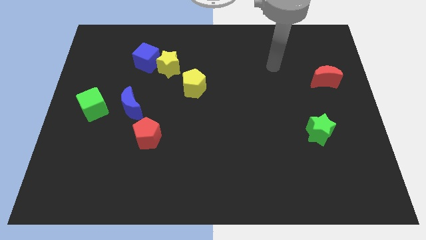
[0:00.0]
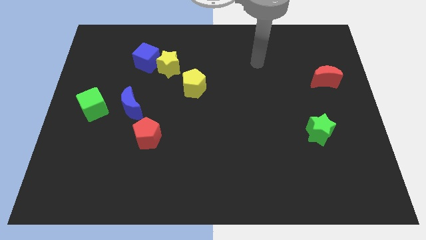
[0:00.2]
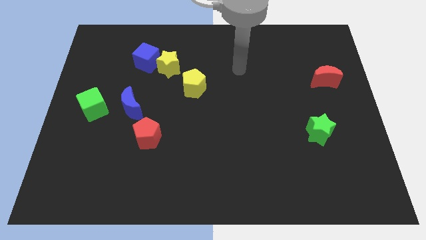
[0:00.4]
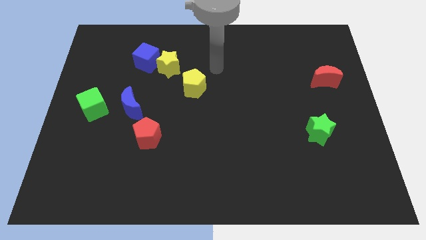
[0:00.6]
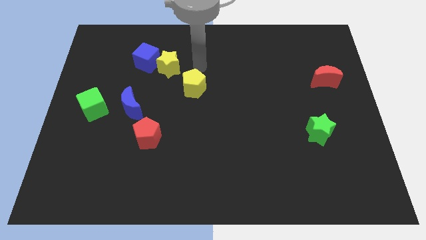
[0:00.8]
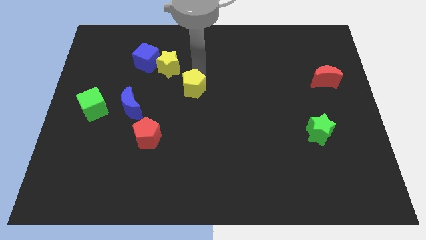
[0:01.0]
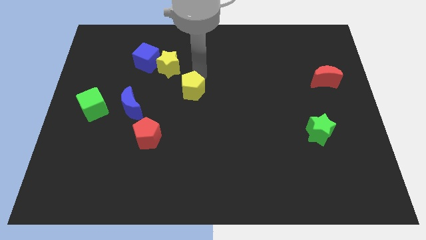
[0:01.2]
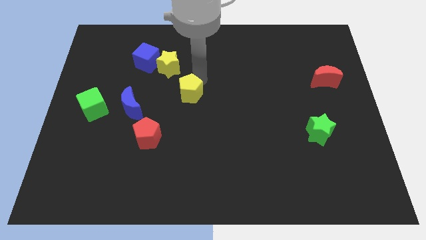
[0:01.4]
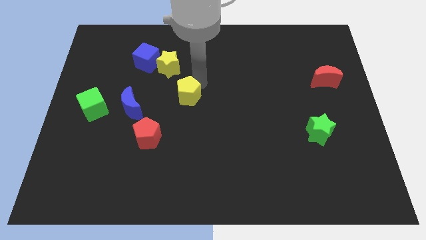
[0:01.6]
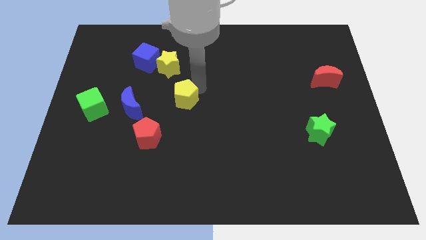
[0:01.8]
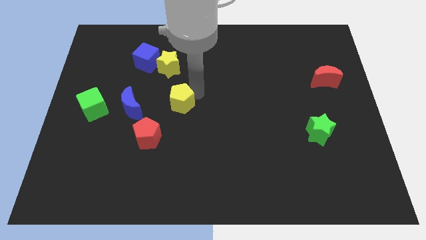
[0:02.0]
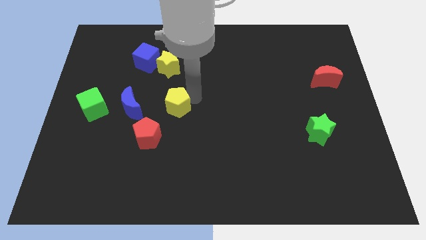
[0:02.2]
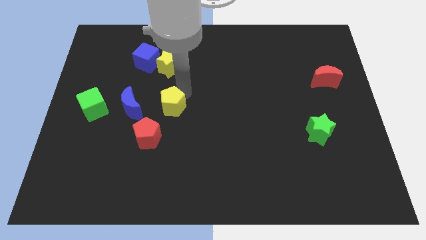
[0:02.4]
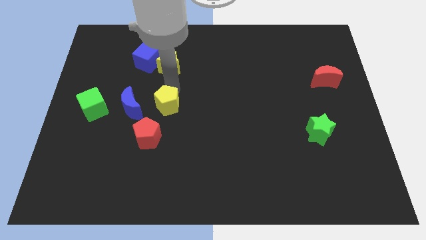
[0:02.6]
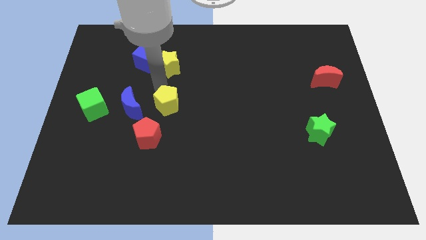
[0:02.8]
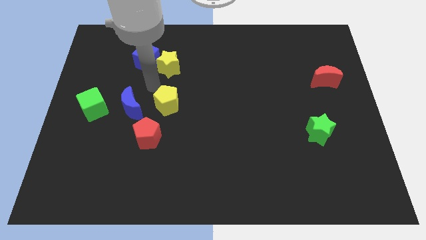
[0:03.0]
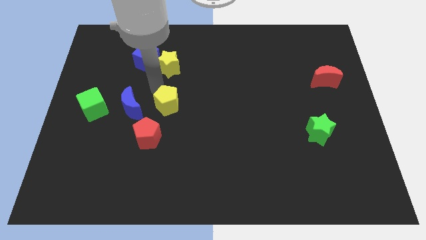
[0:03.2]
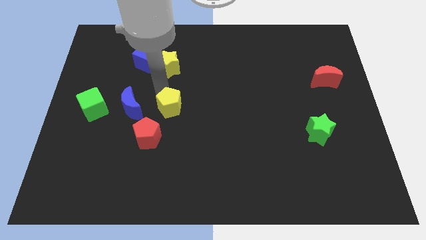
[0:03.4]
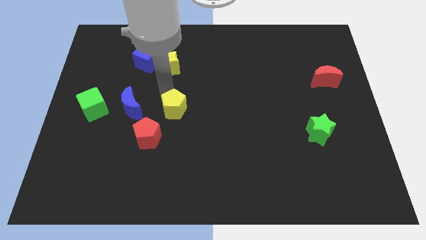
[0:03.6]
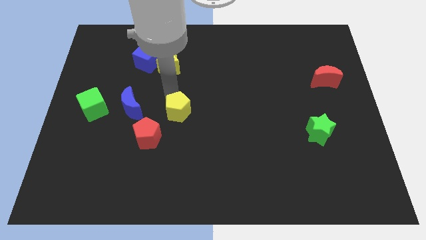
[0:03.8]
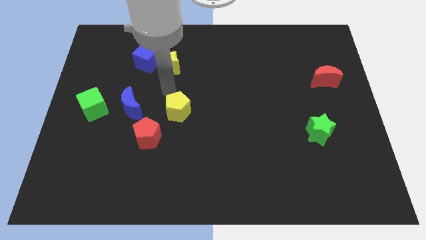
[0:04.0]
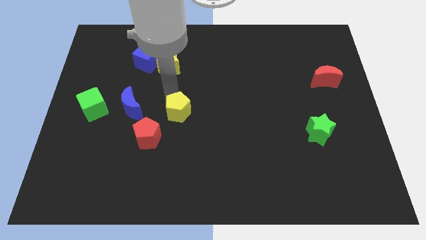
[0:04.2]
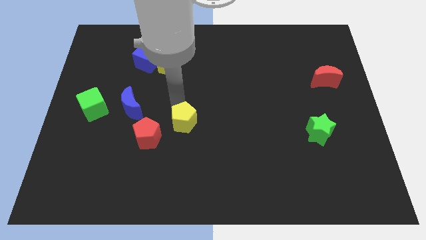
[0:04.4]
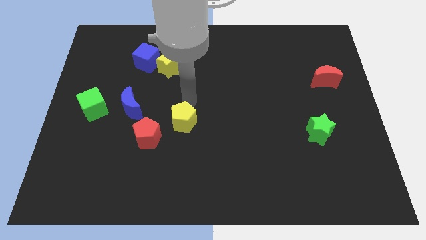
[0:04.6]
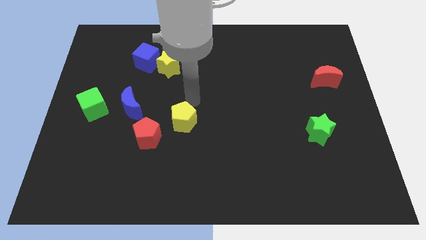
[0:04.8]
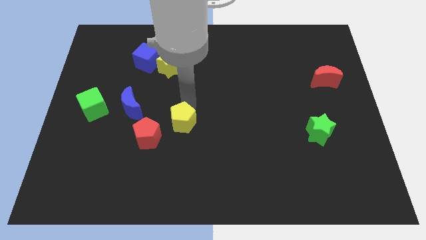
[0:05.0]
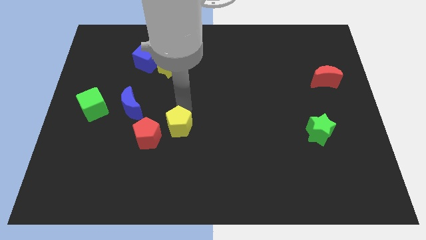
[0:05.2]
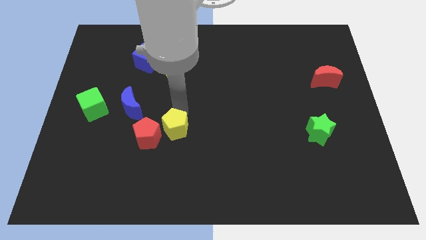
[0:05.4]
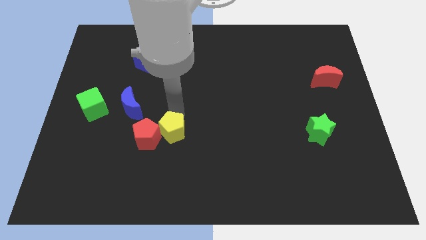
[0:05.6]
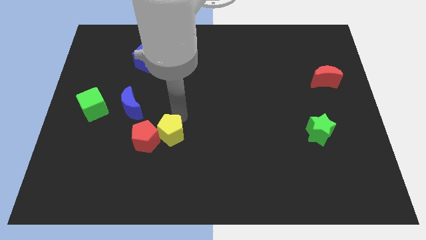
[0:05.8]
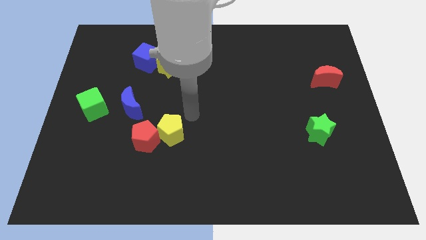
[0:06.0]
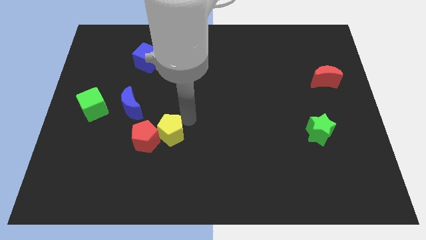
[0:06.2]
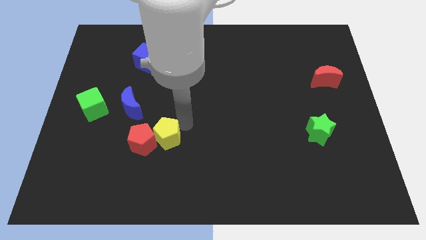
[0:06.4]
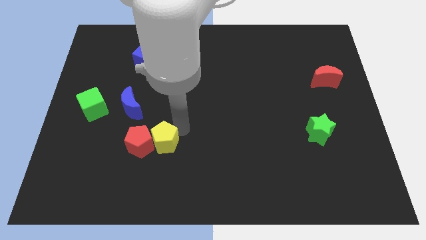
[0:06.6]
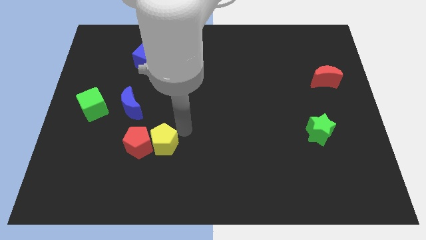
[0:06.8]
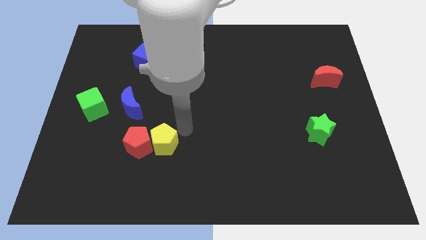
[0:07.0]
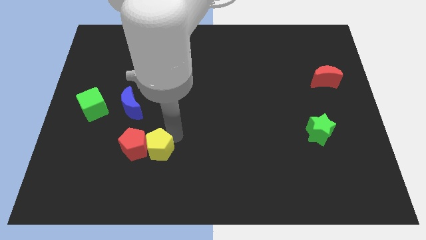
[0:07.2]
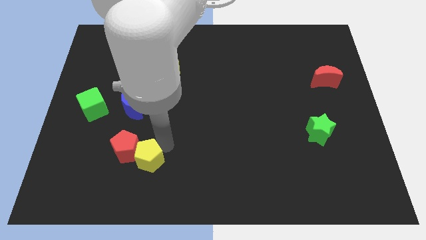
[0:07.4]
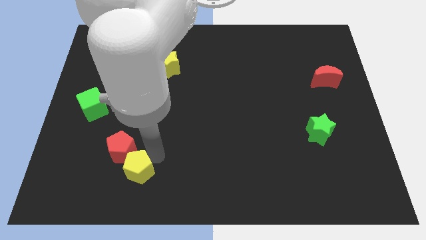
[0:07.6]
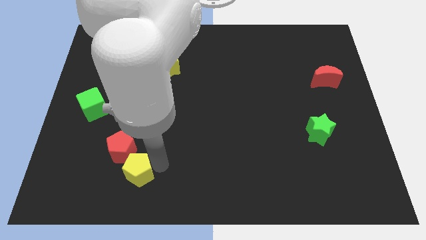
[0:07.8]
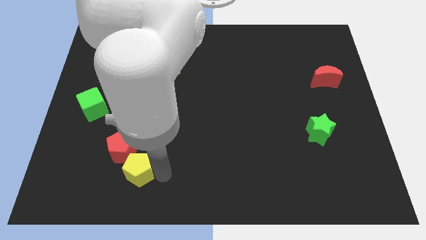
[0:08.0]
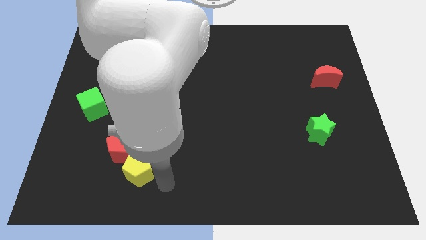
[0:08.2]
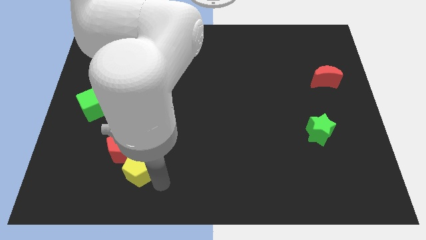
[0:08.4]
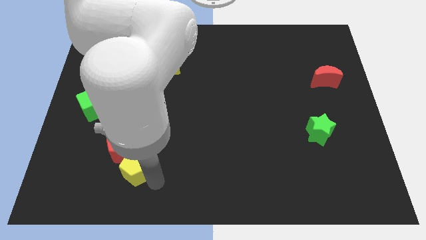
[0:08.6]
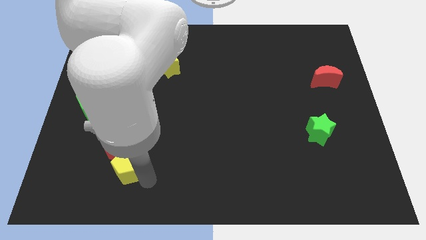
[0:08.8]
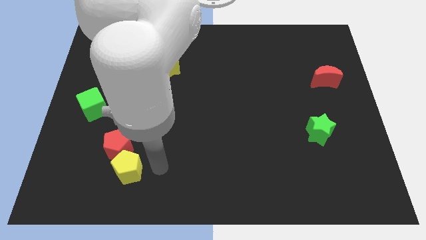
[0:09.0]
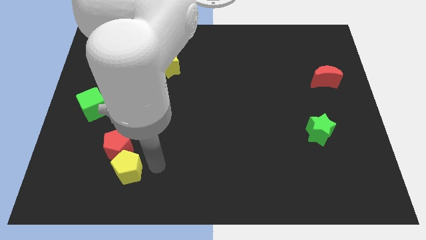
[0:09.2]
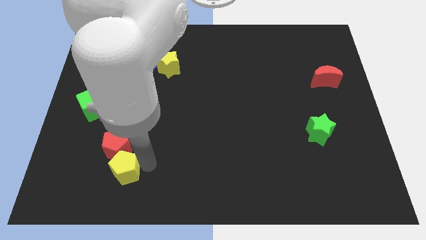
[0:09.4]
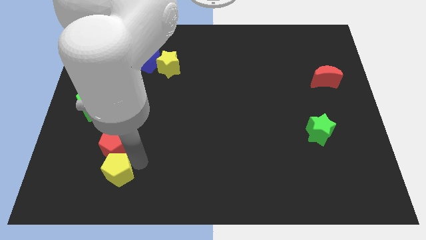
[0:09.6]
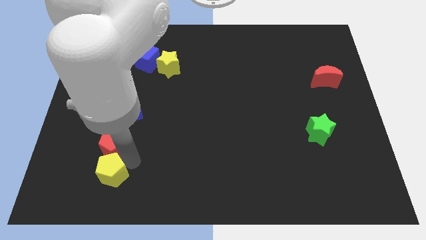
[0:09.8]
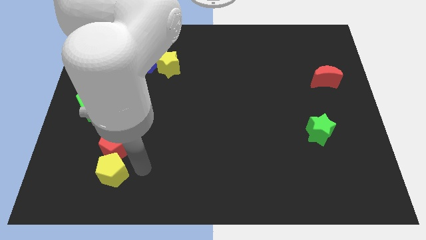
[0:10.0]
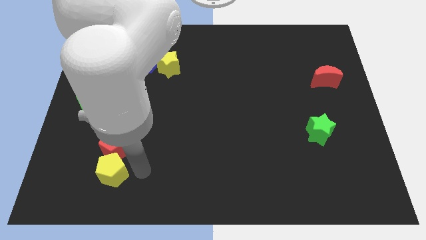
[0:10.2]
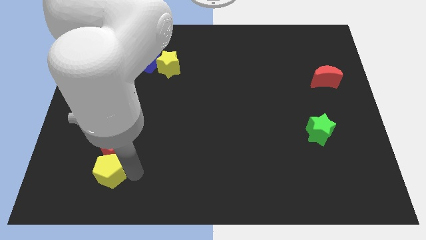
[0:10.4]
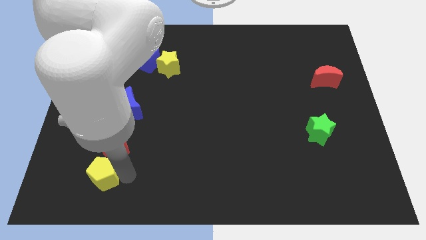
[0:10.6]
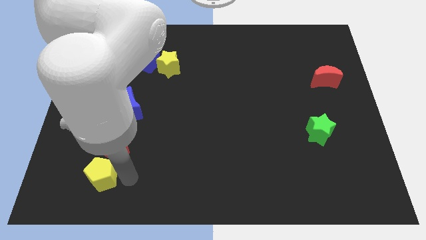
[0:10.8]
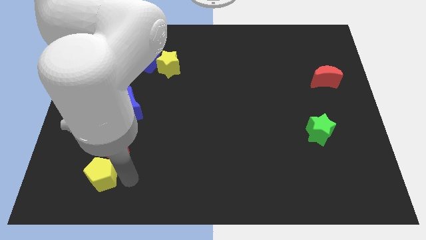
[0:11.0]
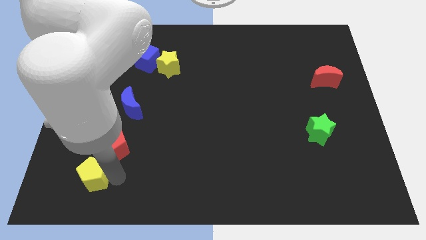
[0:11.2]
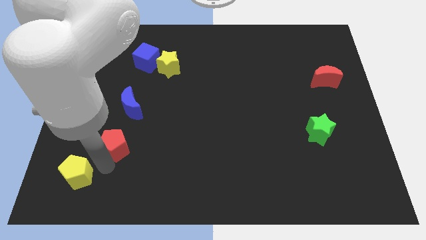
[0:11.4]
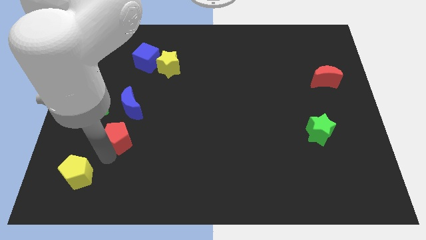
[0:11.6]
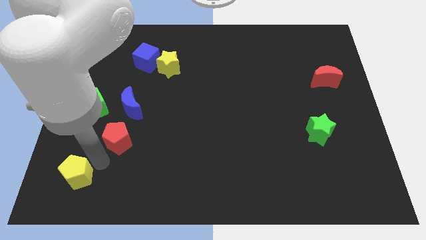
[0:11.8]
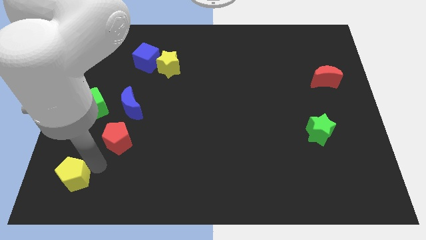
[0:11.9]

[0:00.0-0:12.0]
put the yellow pentagon to the bottom left

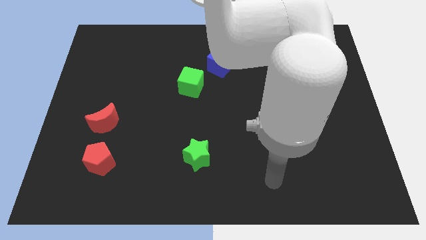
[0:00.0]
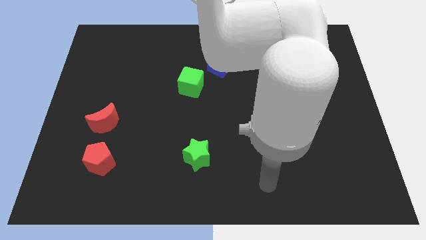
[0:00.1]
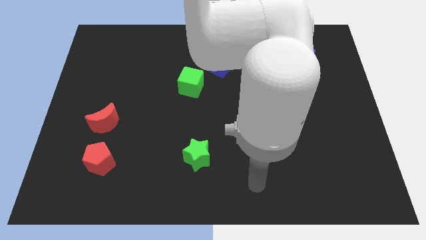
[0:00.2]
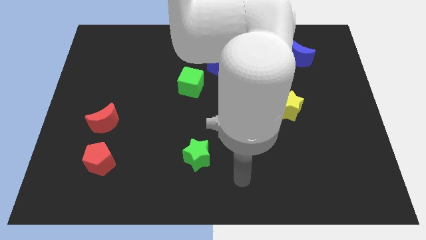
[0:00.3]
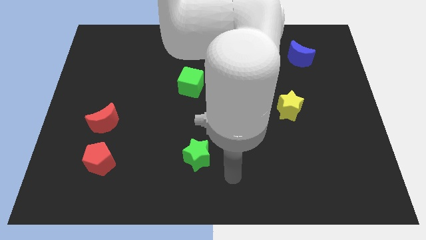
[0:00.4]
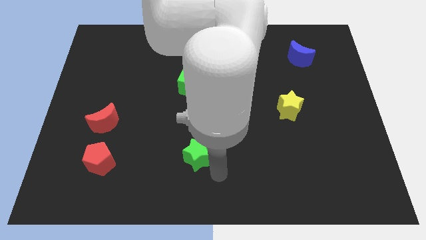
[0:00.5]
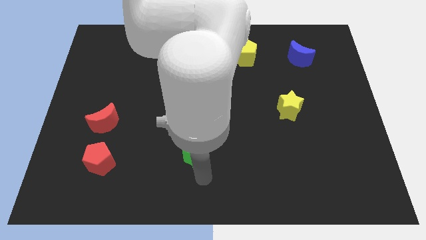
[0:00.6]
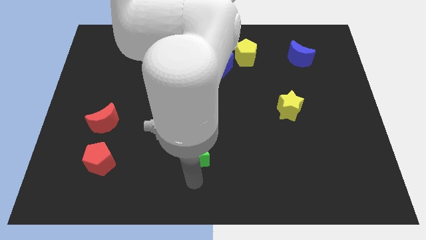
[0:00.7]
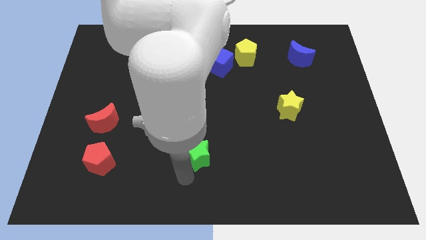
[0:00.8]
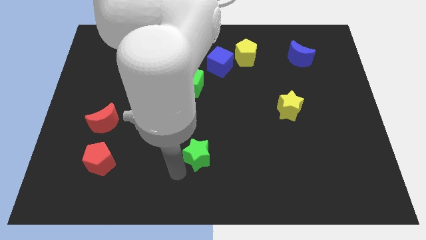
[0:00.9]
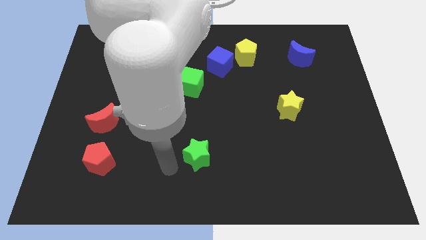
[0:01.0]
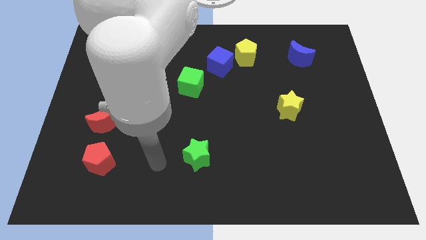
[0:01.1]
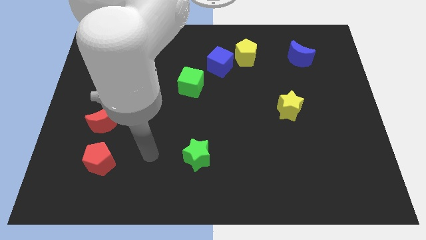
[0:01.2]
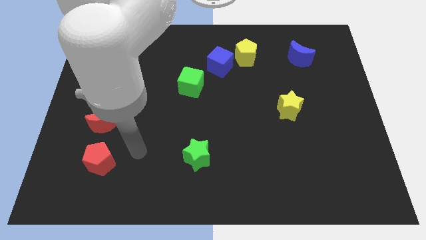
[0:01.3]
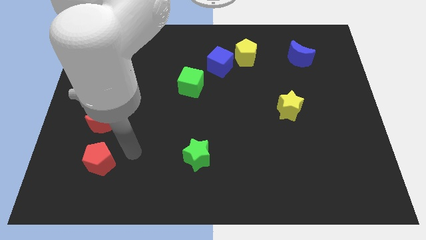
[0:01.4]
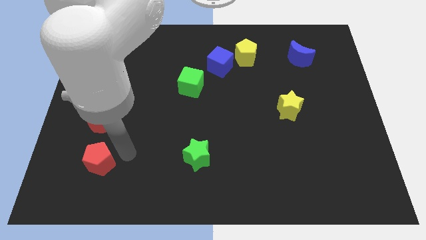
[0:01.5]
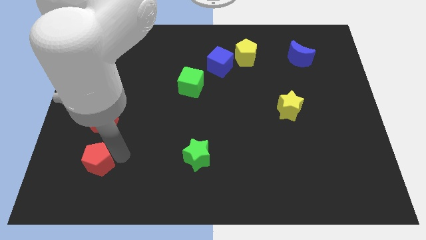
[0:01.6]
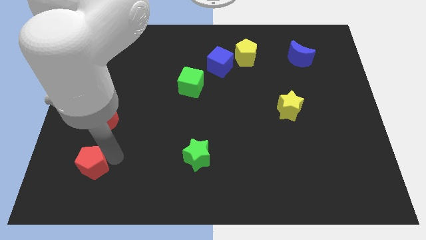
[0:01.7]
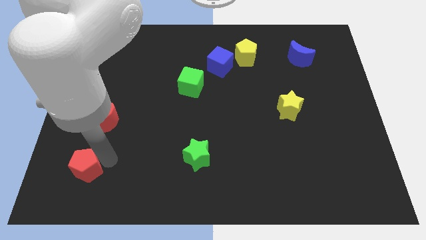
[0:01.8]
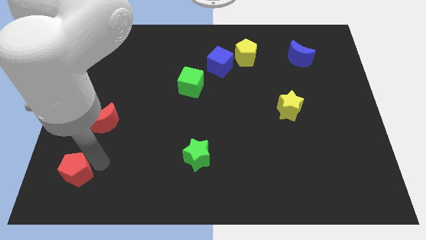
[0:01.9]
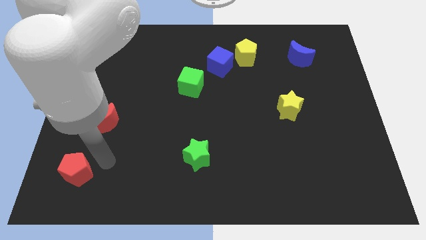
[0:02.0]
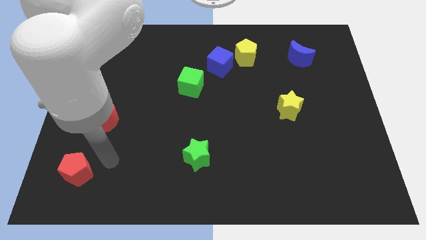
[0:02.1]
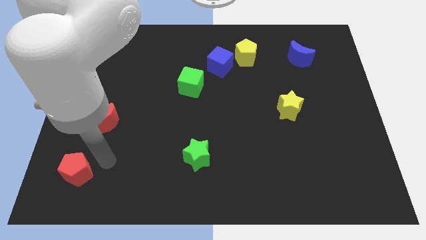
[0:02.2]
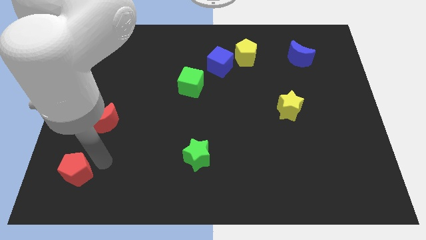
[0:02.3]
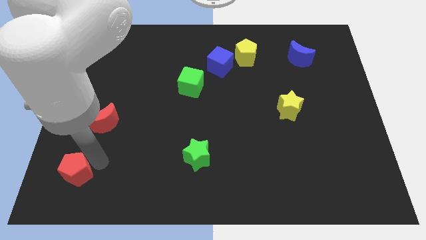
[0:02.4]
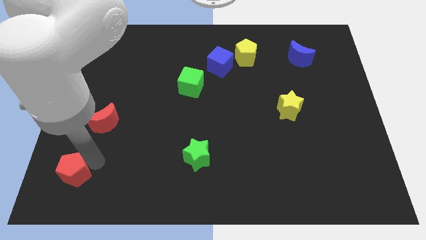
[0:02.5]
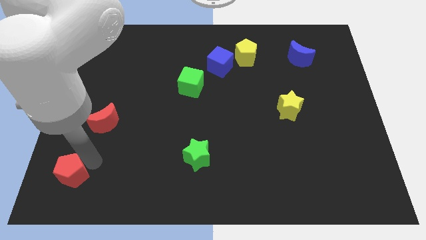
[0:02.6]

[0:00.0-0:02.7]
move the red pentagon to the lower left corner
